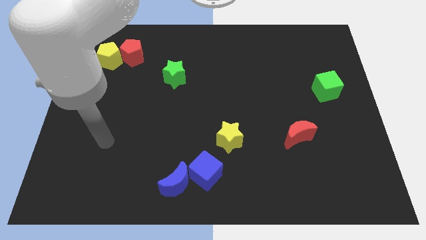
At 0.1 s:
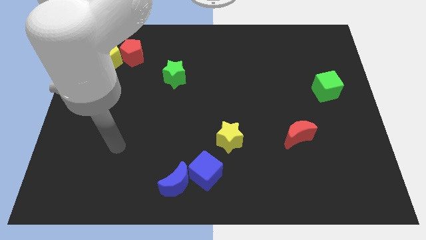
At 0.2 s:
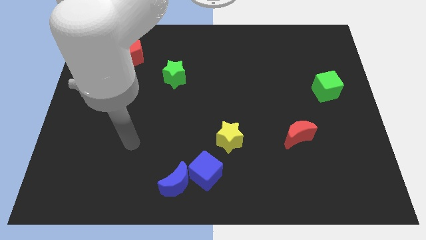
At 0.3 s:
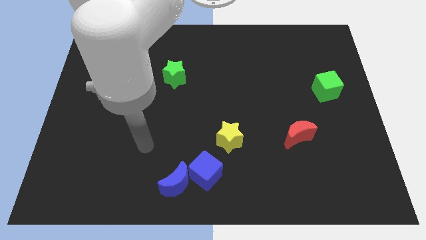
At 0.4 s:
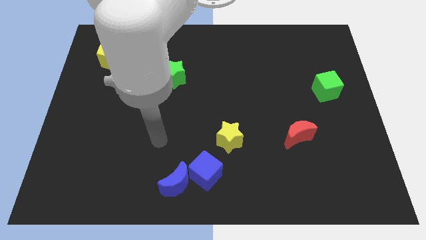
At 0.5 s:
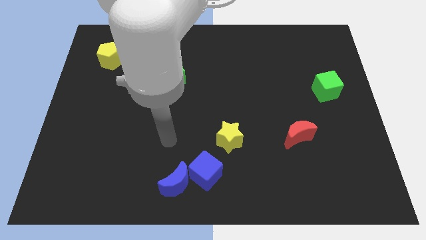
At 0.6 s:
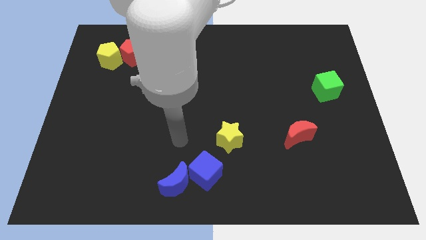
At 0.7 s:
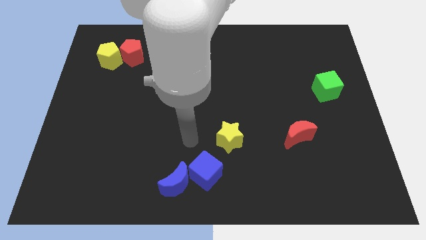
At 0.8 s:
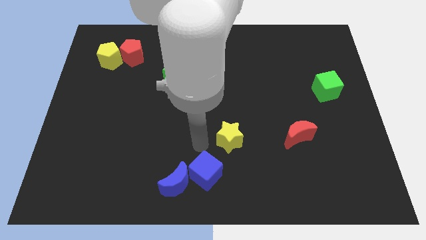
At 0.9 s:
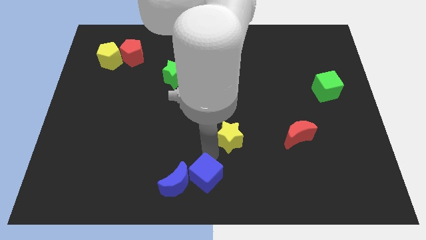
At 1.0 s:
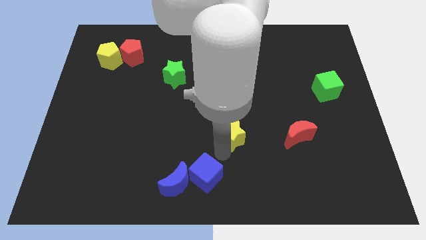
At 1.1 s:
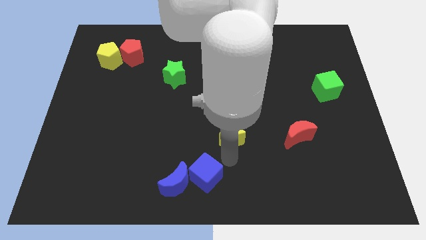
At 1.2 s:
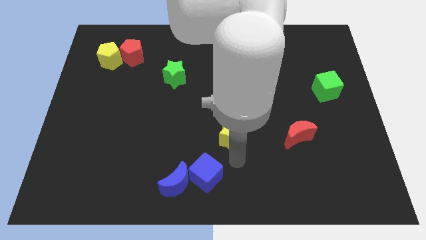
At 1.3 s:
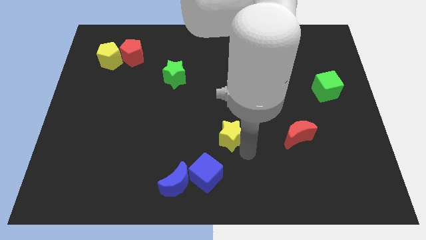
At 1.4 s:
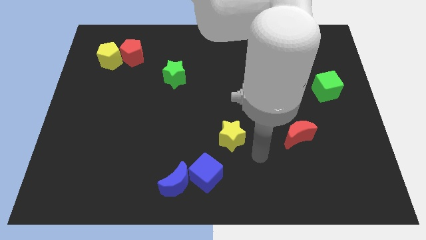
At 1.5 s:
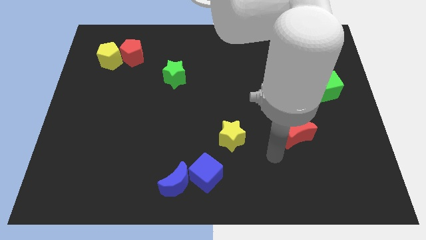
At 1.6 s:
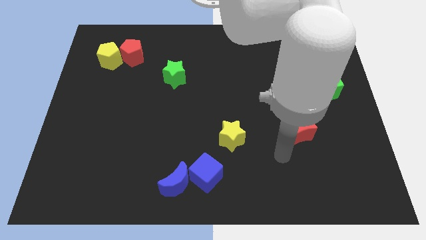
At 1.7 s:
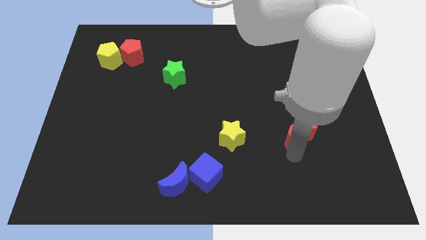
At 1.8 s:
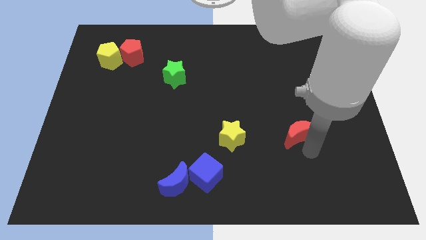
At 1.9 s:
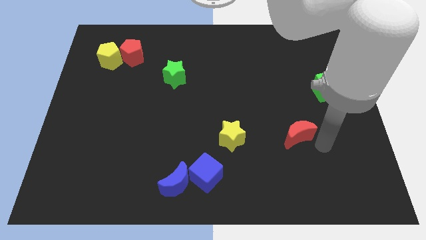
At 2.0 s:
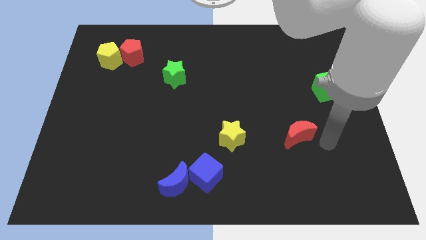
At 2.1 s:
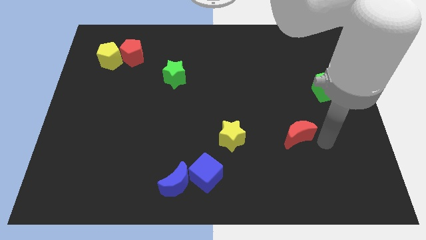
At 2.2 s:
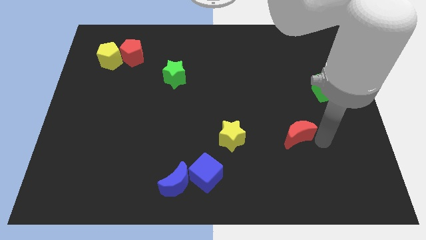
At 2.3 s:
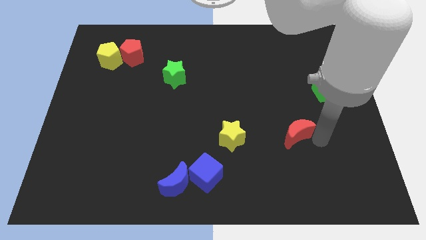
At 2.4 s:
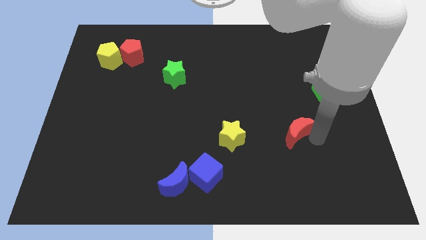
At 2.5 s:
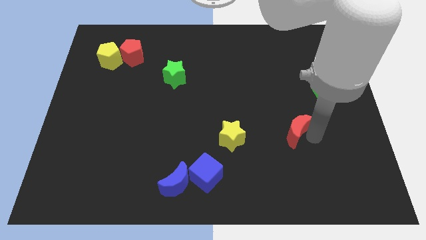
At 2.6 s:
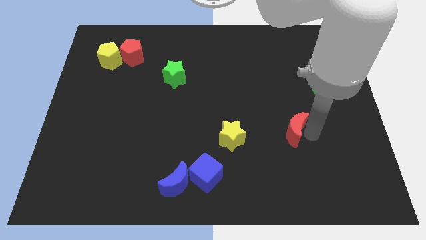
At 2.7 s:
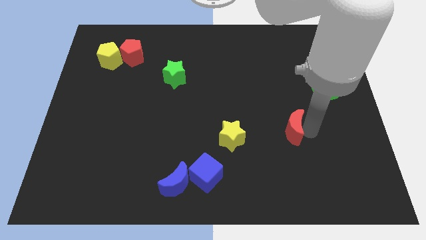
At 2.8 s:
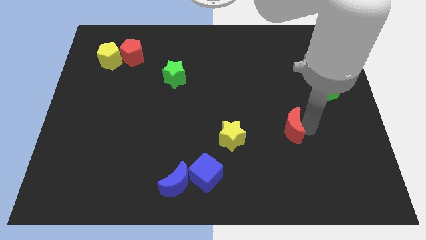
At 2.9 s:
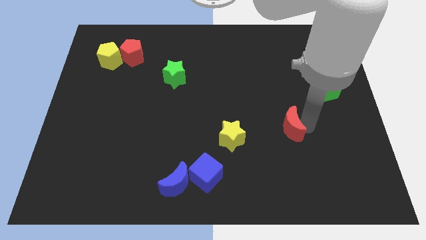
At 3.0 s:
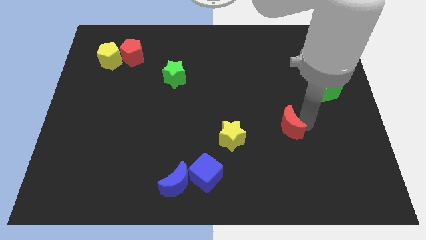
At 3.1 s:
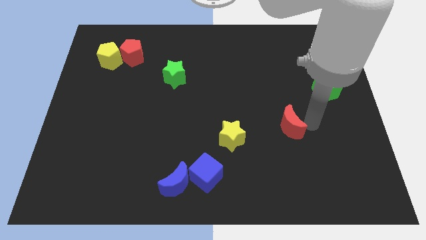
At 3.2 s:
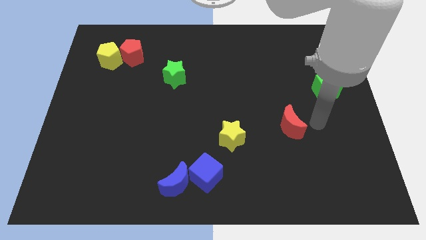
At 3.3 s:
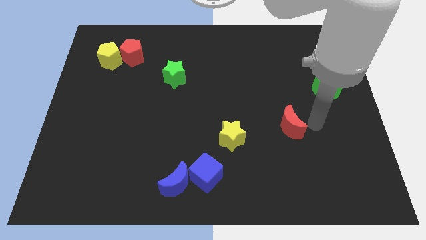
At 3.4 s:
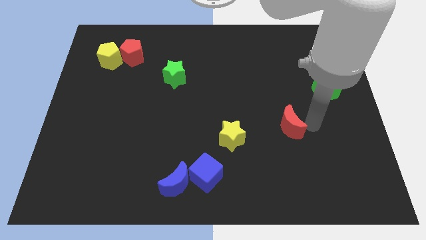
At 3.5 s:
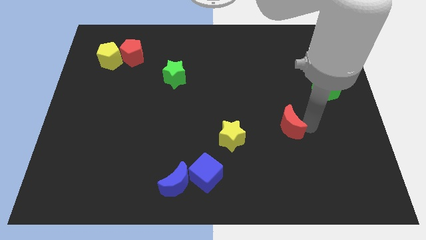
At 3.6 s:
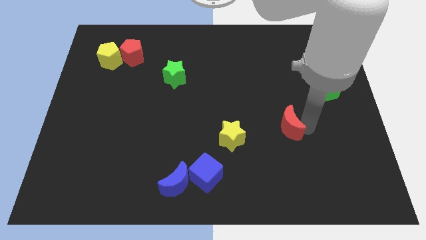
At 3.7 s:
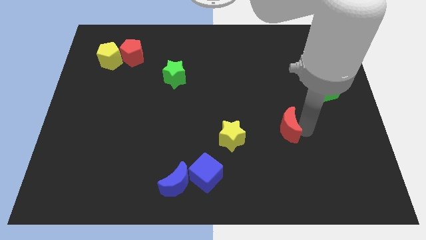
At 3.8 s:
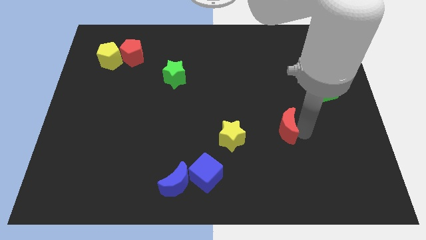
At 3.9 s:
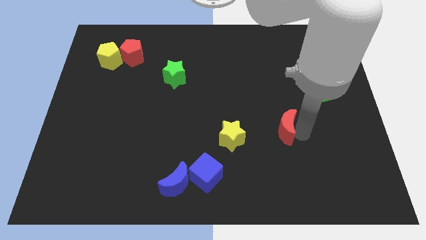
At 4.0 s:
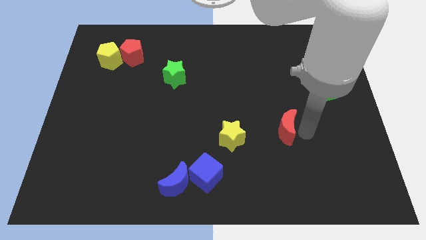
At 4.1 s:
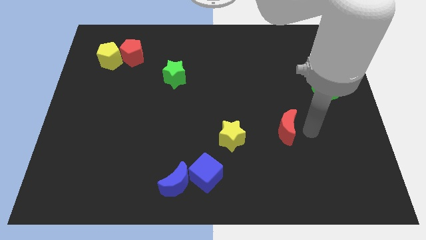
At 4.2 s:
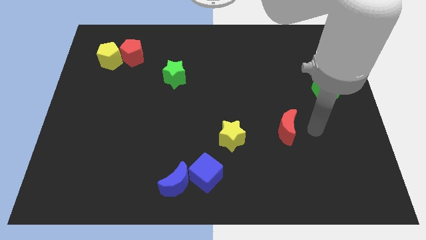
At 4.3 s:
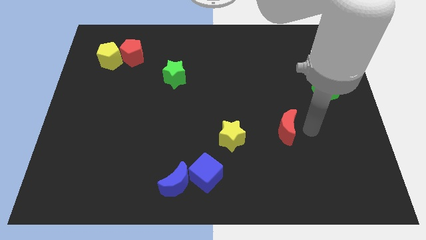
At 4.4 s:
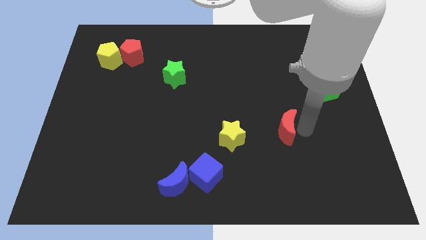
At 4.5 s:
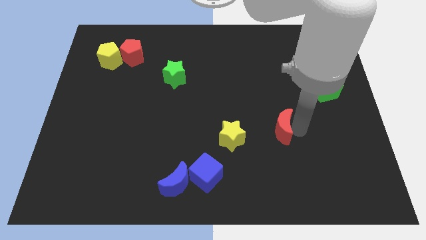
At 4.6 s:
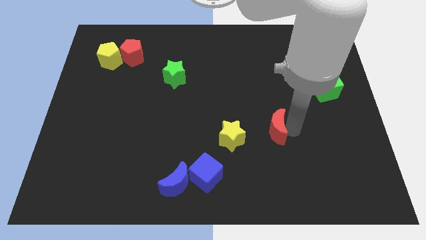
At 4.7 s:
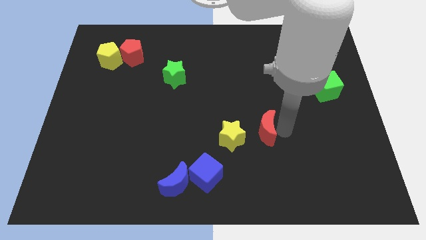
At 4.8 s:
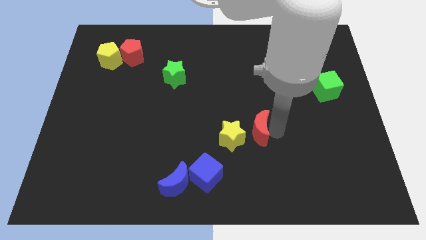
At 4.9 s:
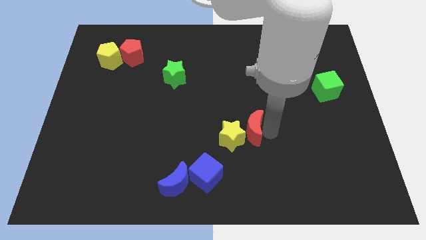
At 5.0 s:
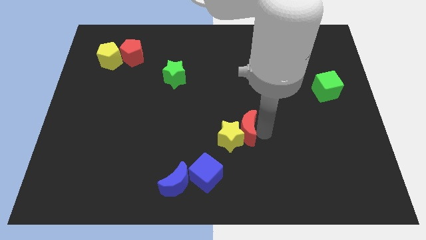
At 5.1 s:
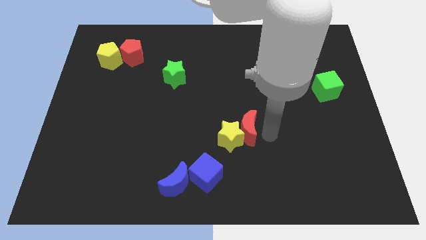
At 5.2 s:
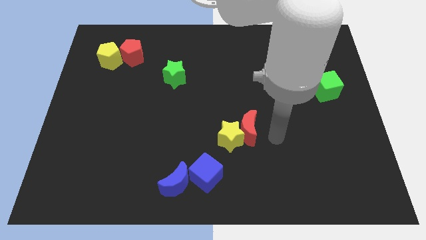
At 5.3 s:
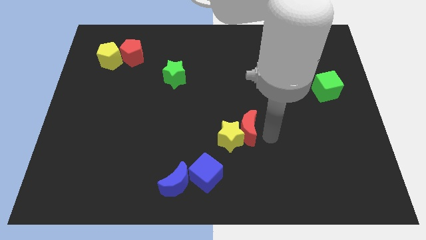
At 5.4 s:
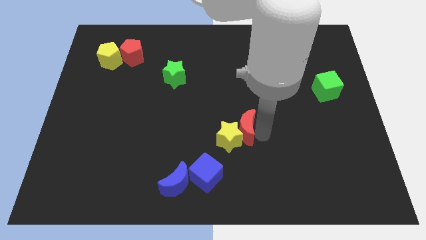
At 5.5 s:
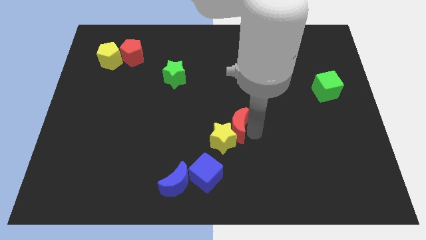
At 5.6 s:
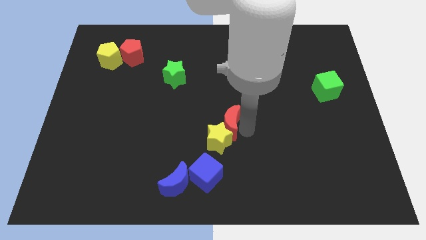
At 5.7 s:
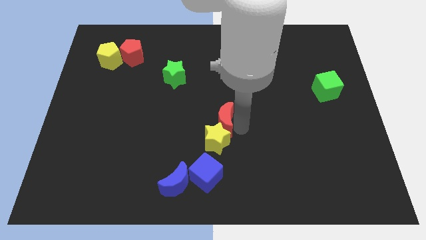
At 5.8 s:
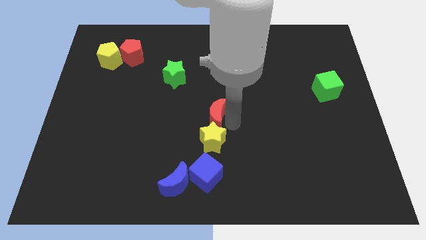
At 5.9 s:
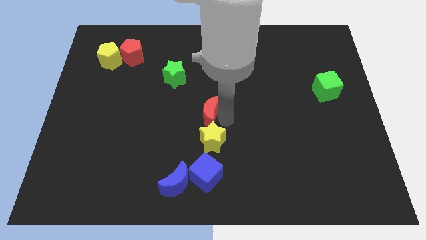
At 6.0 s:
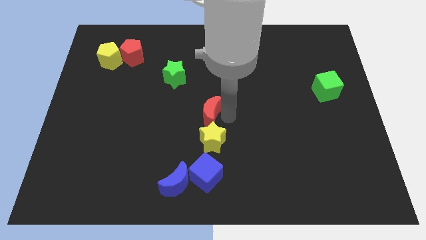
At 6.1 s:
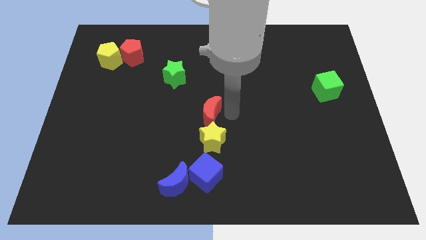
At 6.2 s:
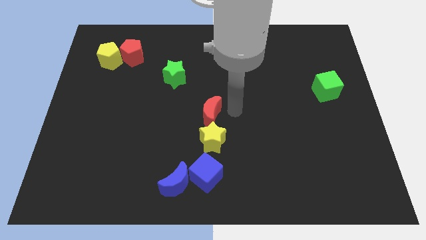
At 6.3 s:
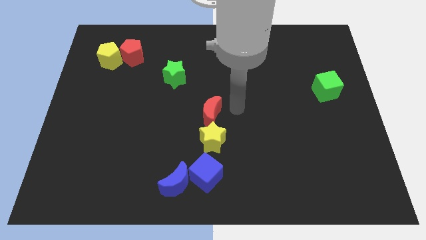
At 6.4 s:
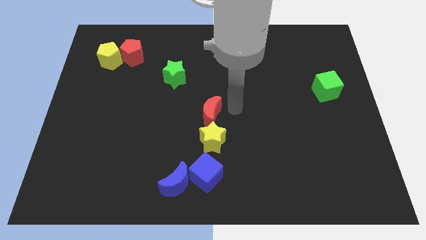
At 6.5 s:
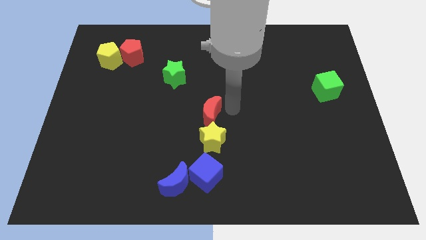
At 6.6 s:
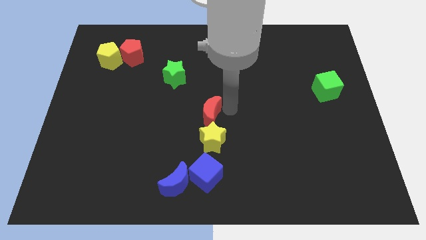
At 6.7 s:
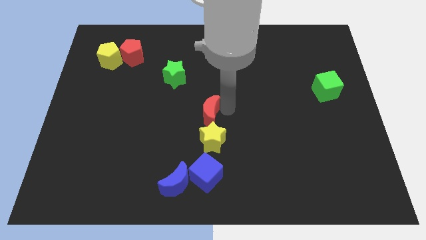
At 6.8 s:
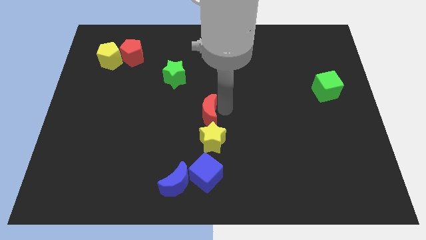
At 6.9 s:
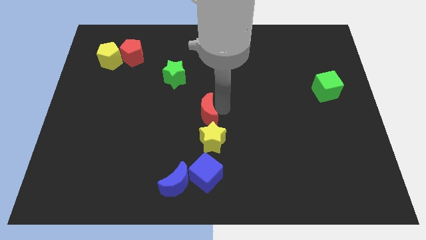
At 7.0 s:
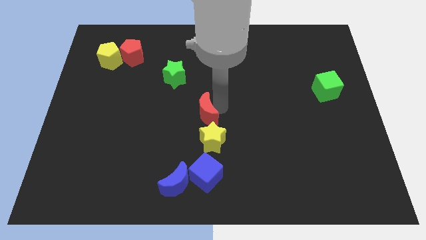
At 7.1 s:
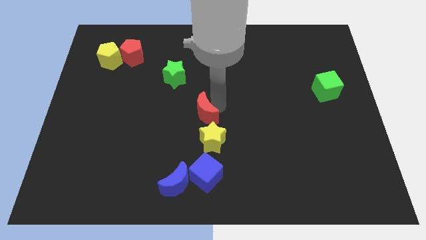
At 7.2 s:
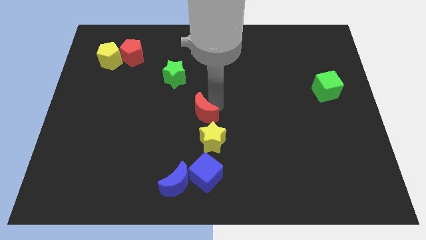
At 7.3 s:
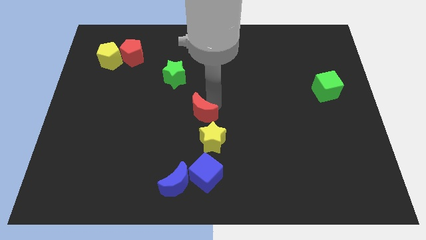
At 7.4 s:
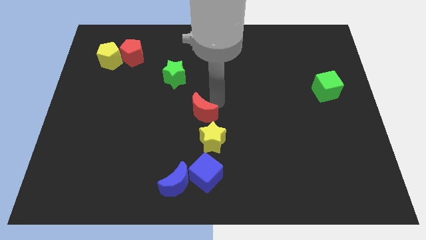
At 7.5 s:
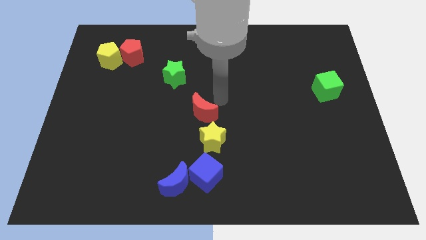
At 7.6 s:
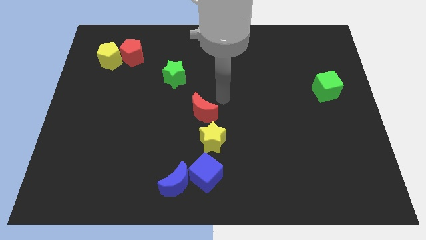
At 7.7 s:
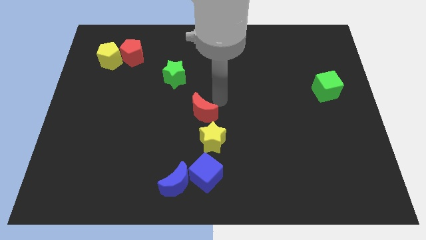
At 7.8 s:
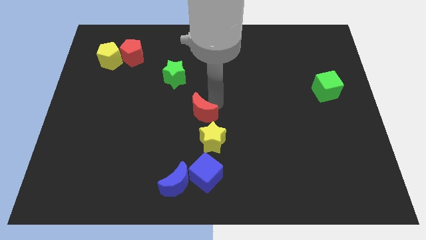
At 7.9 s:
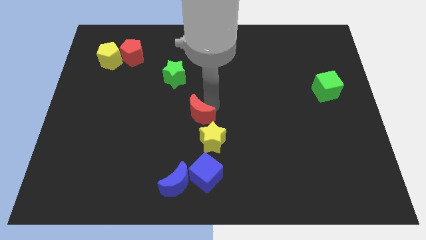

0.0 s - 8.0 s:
slide the red moon to the left
